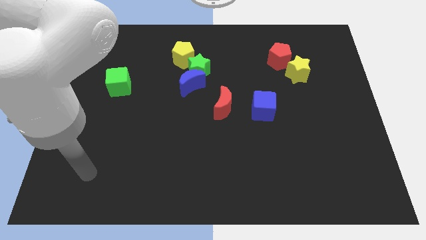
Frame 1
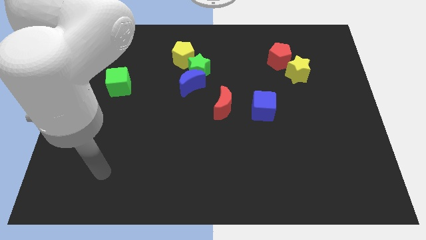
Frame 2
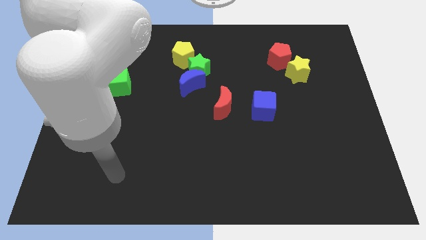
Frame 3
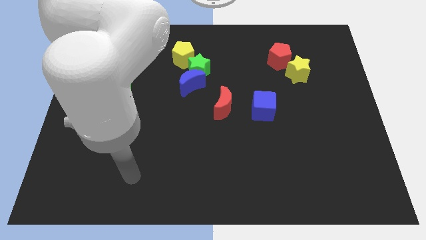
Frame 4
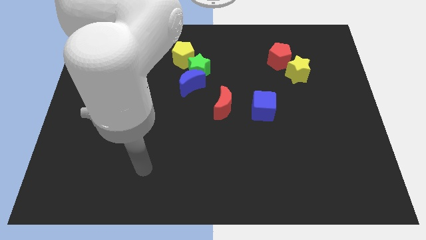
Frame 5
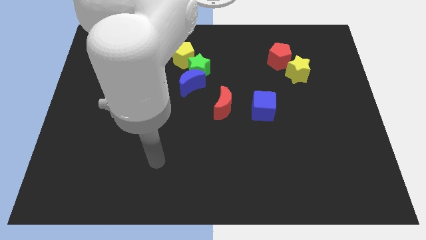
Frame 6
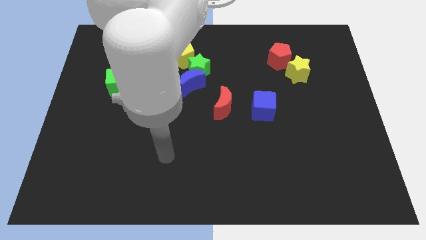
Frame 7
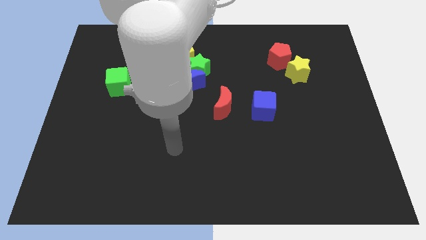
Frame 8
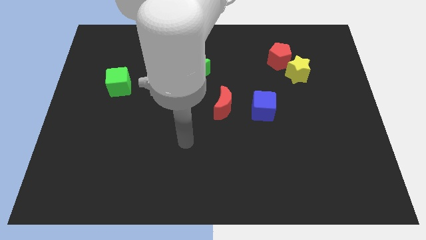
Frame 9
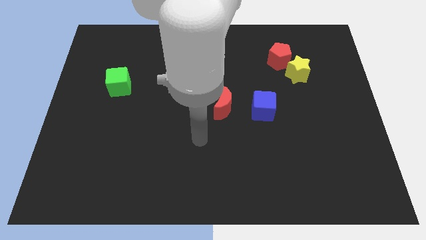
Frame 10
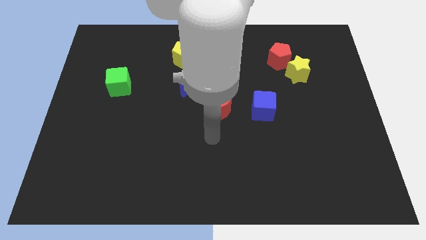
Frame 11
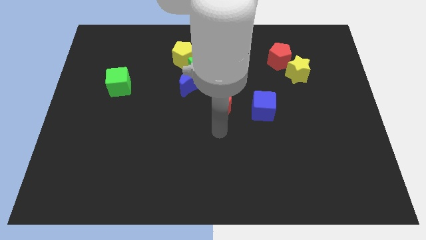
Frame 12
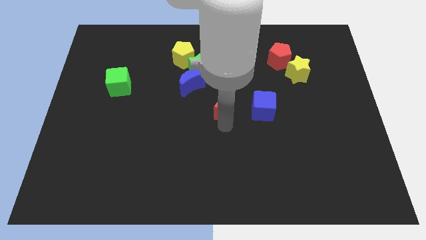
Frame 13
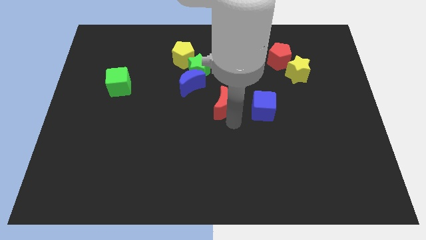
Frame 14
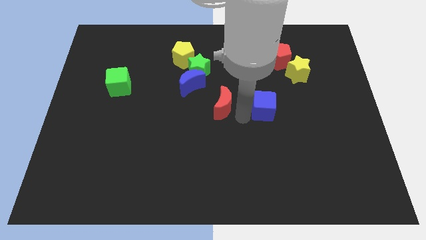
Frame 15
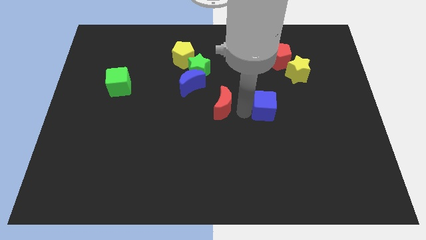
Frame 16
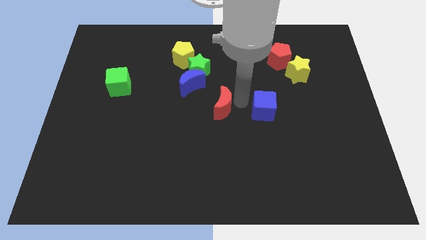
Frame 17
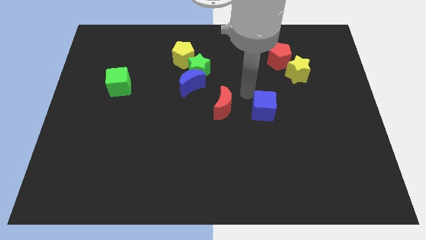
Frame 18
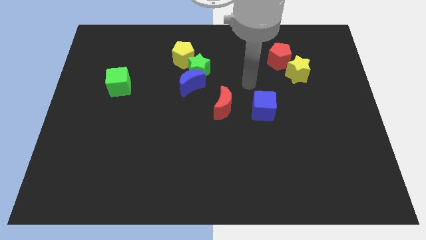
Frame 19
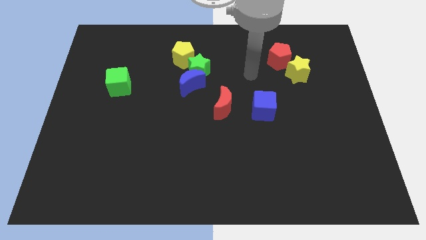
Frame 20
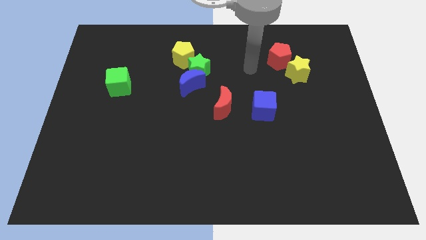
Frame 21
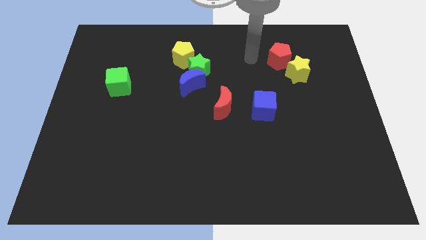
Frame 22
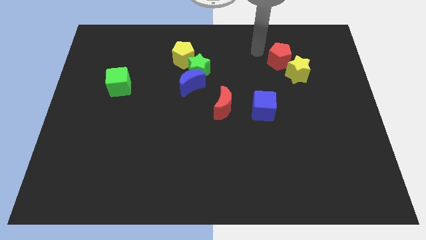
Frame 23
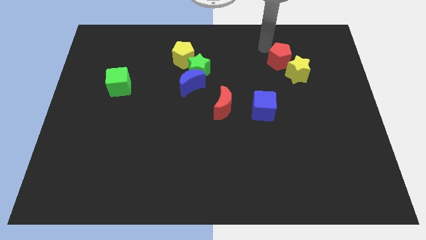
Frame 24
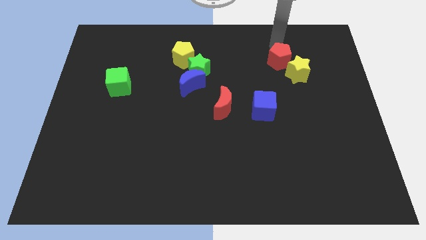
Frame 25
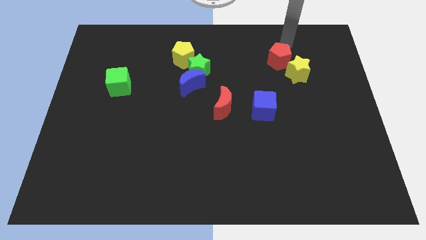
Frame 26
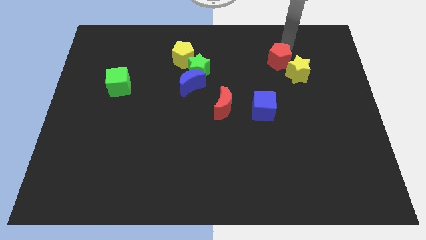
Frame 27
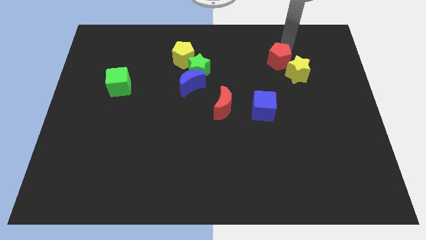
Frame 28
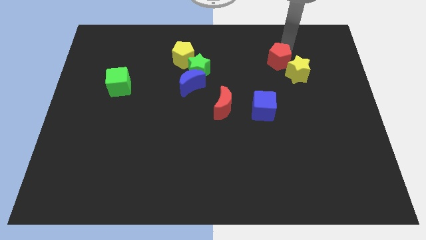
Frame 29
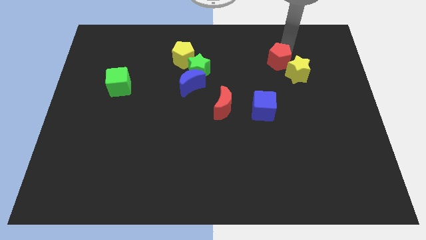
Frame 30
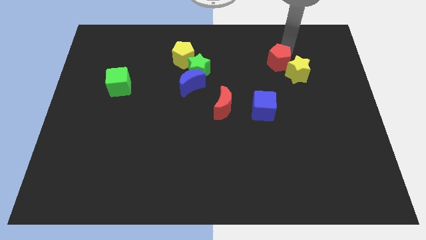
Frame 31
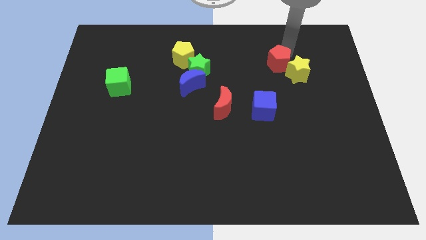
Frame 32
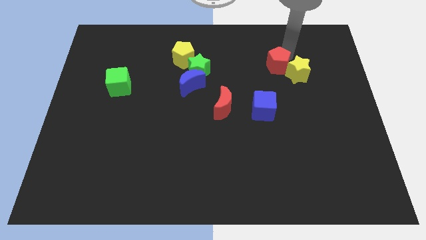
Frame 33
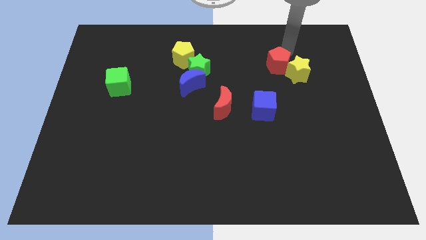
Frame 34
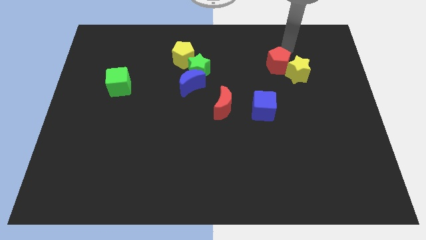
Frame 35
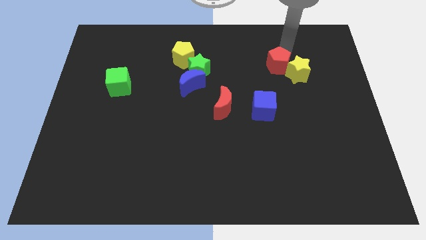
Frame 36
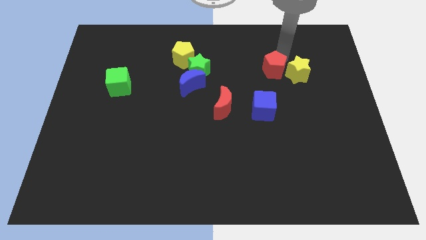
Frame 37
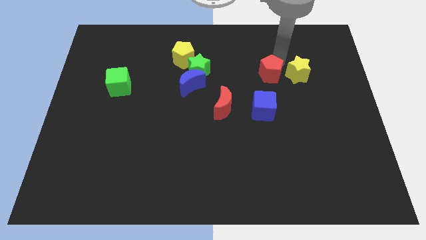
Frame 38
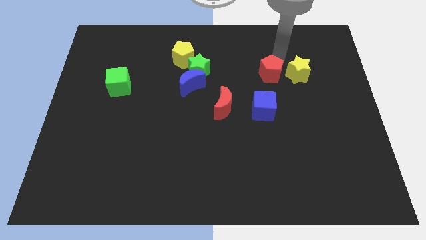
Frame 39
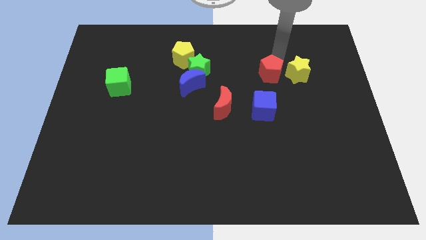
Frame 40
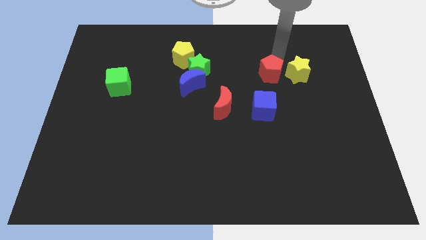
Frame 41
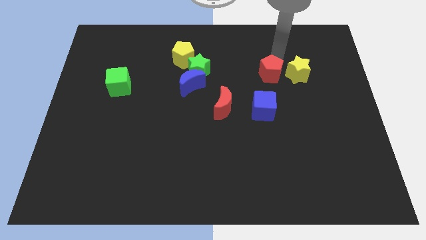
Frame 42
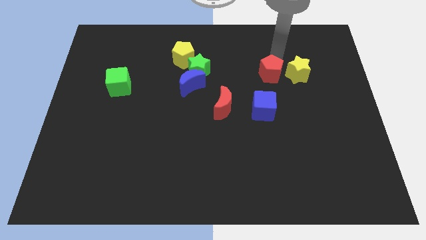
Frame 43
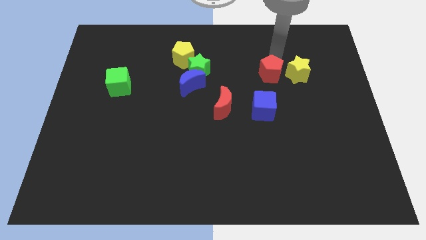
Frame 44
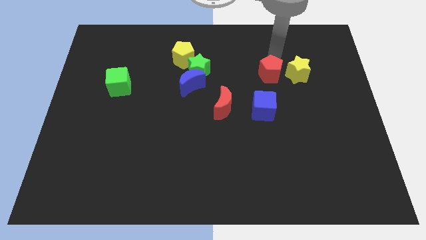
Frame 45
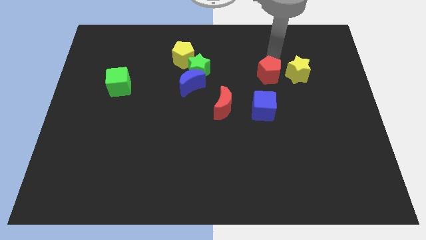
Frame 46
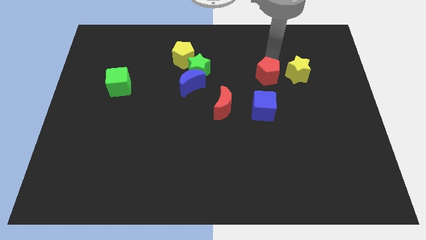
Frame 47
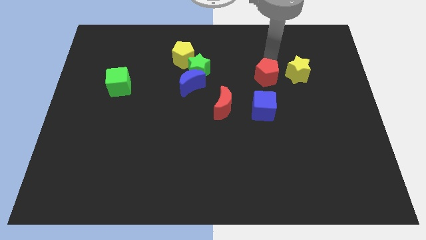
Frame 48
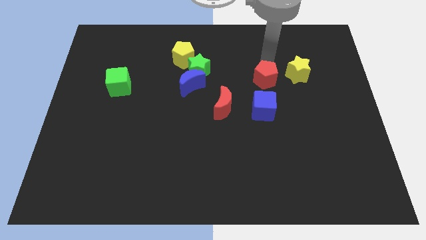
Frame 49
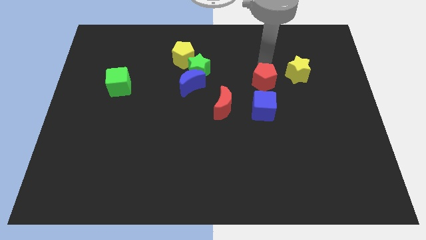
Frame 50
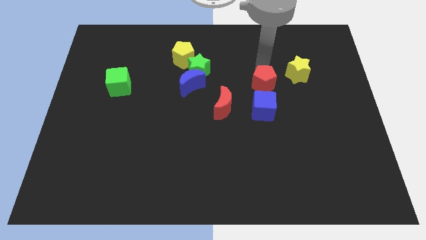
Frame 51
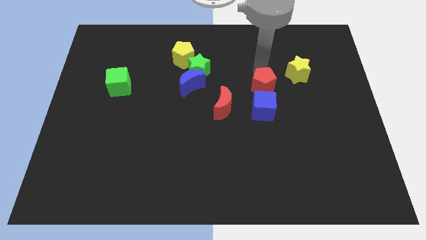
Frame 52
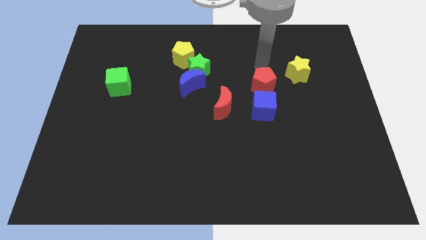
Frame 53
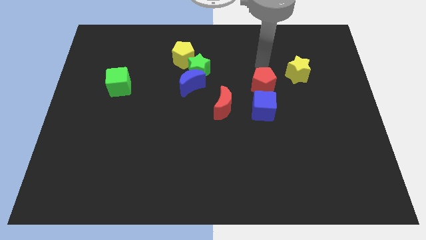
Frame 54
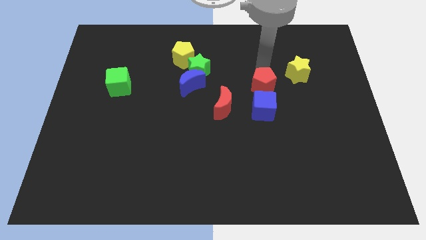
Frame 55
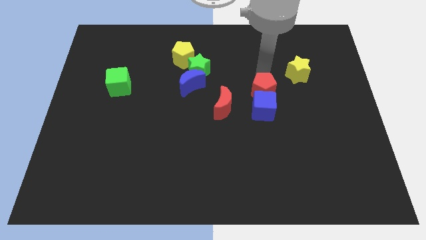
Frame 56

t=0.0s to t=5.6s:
move the red pentagon towards the blue cube

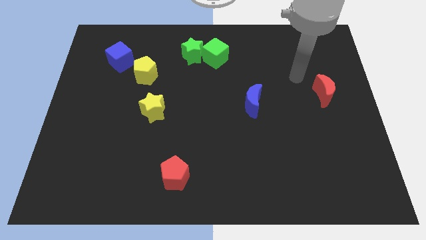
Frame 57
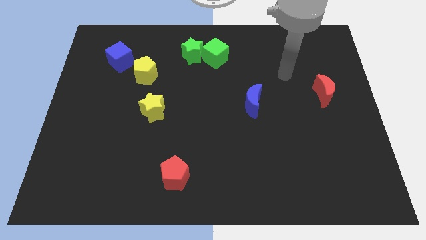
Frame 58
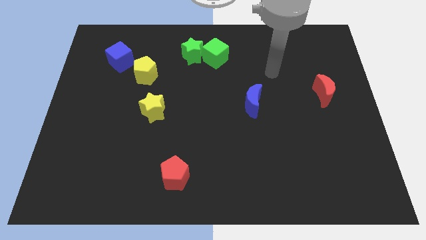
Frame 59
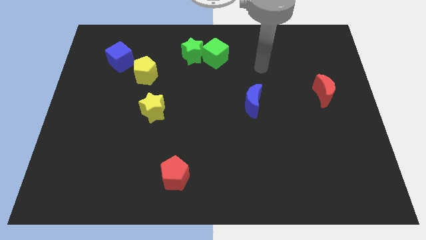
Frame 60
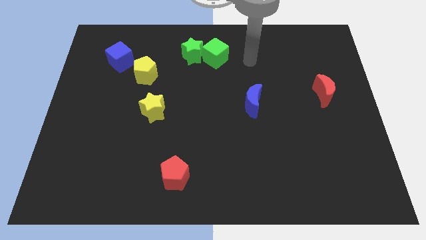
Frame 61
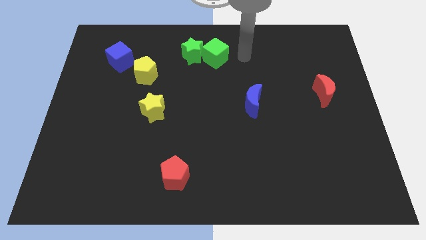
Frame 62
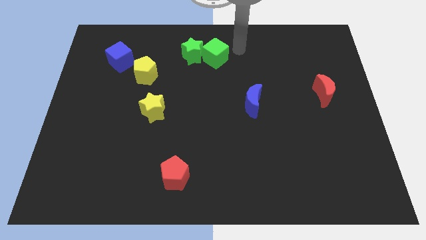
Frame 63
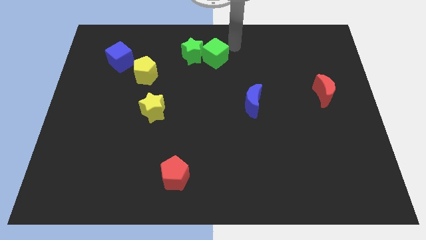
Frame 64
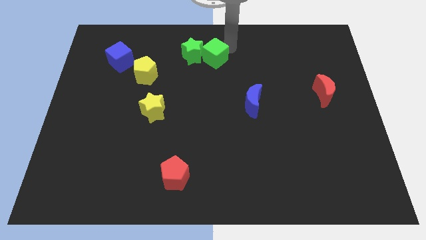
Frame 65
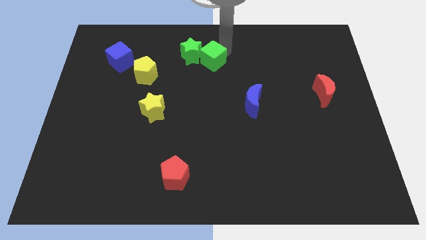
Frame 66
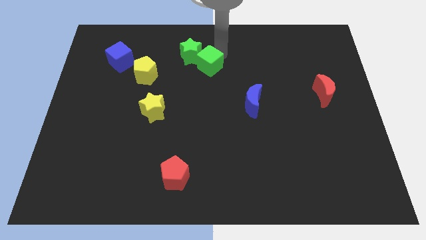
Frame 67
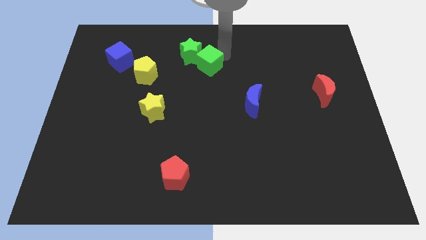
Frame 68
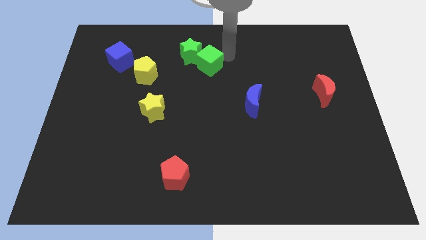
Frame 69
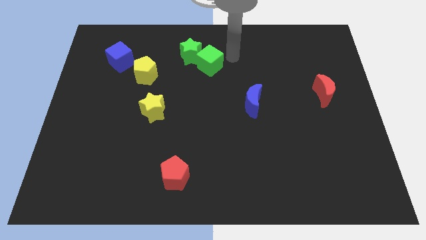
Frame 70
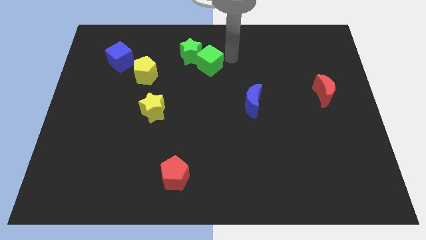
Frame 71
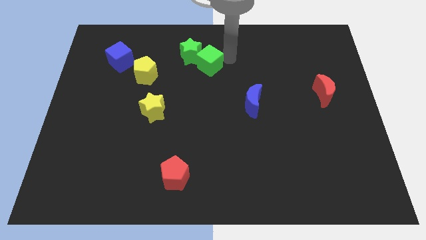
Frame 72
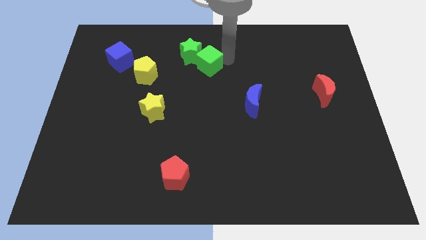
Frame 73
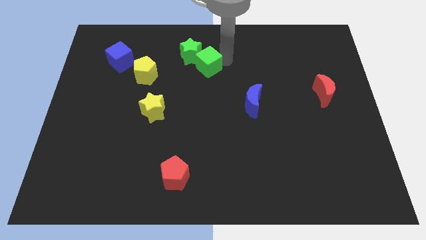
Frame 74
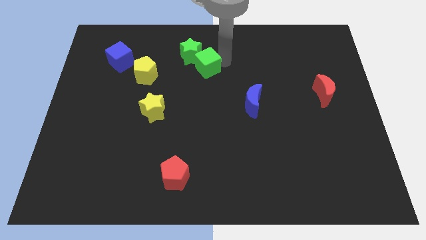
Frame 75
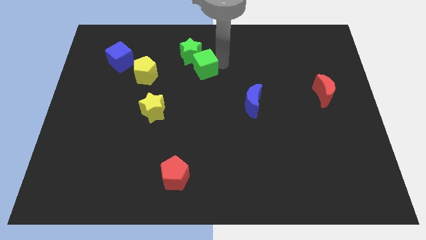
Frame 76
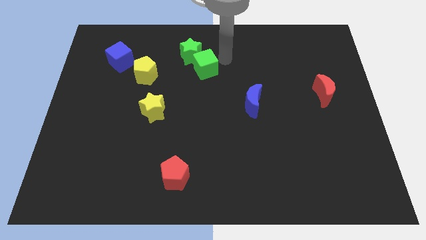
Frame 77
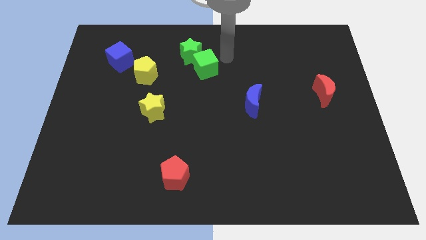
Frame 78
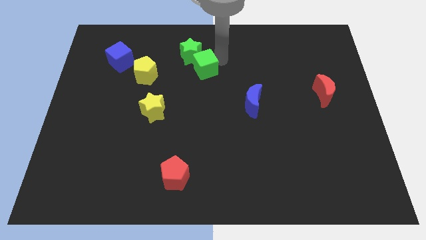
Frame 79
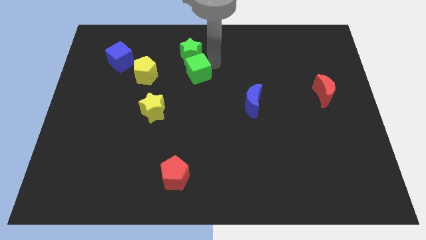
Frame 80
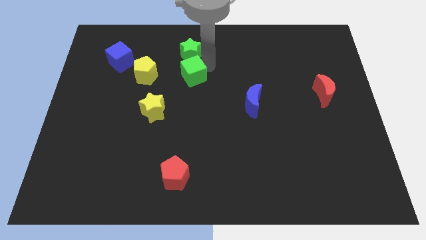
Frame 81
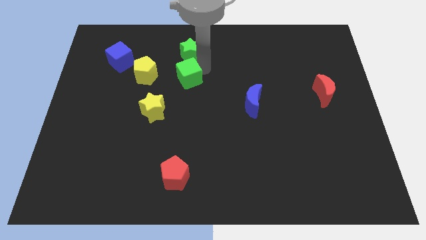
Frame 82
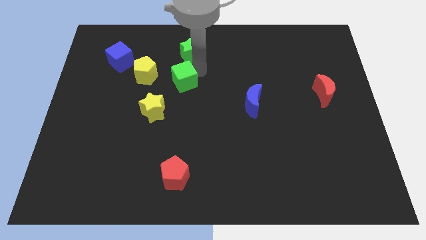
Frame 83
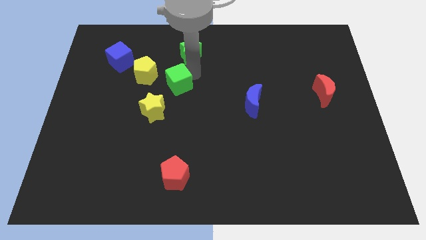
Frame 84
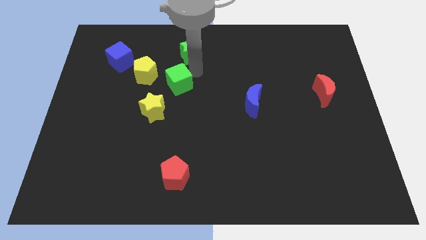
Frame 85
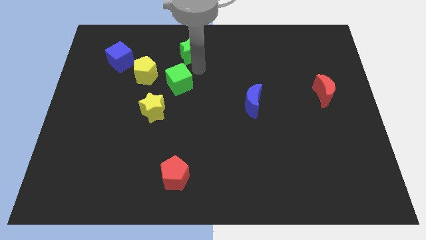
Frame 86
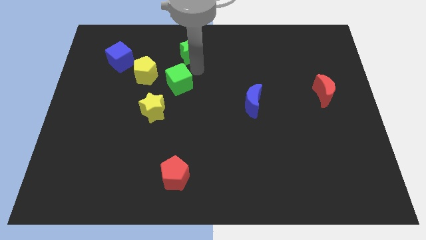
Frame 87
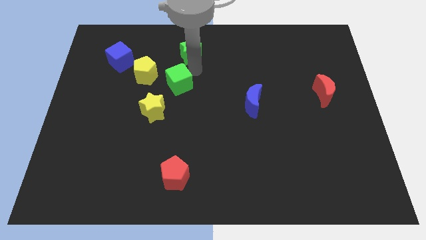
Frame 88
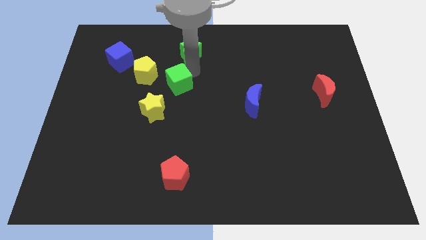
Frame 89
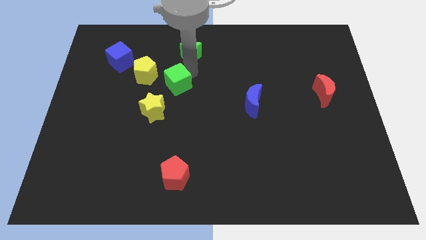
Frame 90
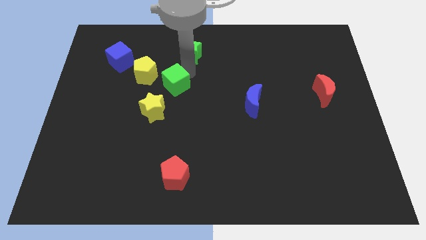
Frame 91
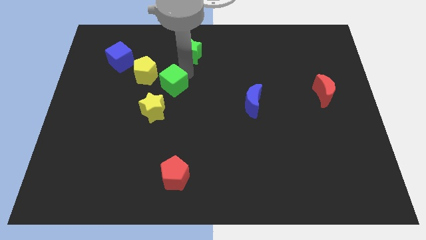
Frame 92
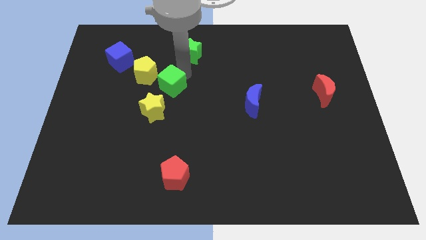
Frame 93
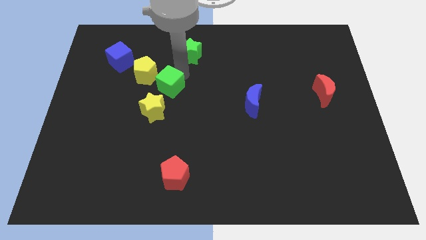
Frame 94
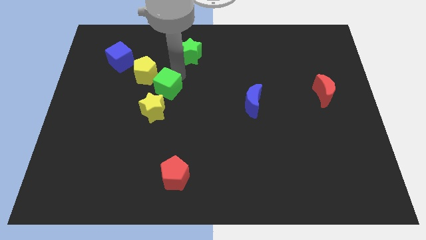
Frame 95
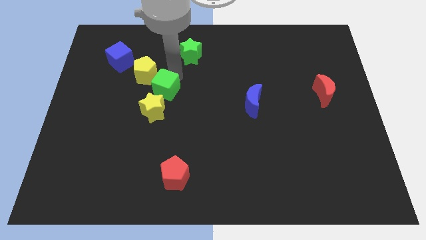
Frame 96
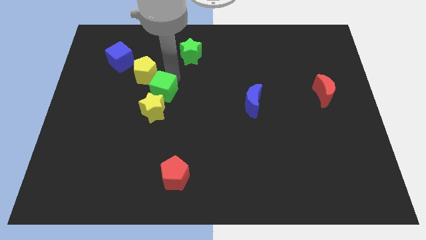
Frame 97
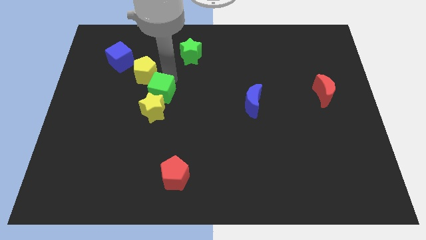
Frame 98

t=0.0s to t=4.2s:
slide the green cube next to the yellow star
